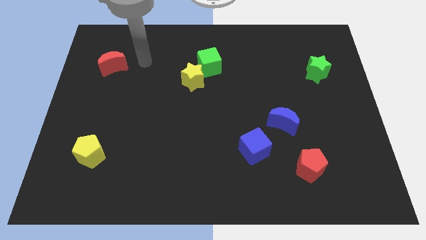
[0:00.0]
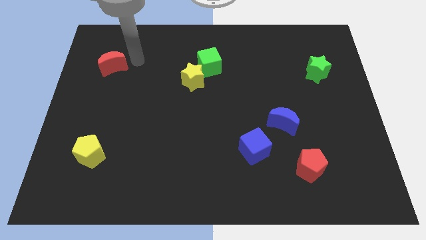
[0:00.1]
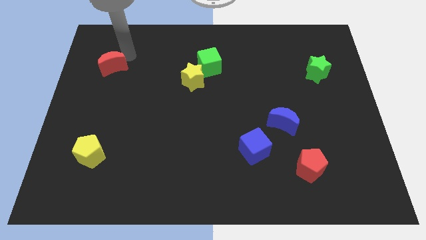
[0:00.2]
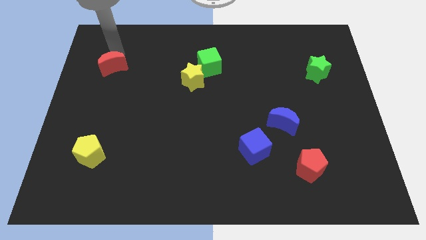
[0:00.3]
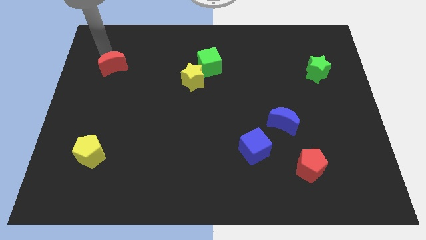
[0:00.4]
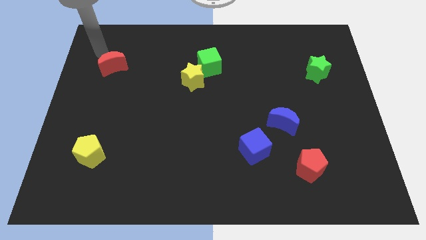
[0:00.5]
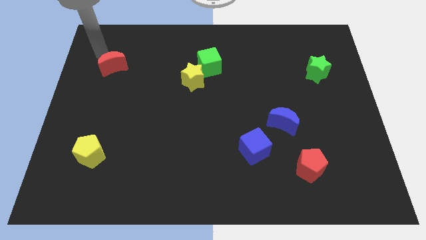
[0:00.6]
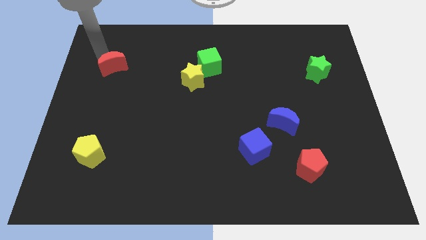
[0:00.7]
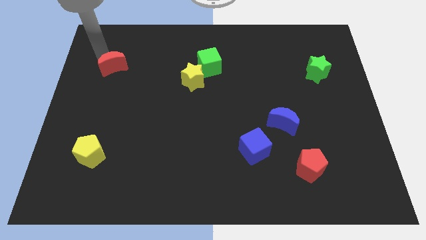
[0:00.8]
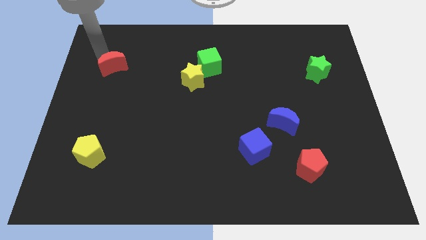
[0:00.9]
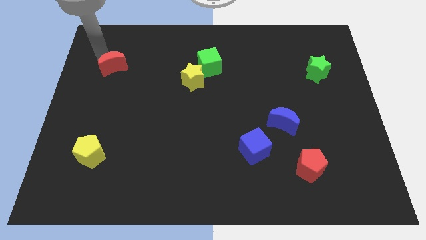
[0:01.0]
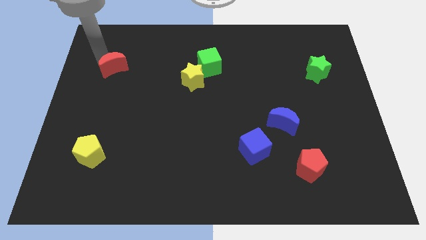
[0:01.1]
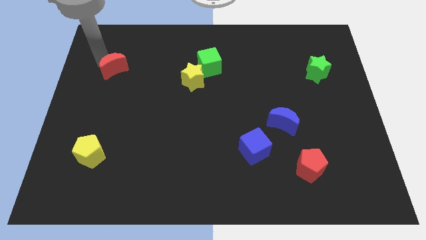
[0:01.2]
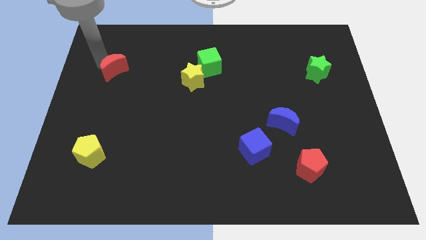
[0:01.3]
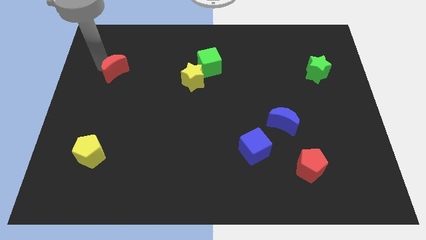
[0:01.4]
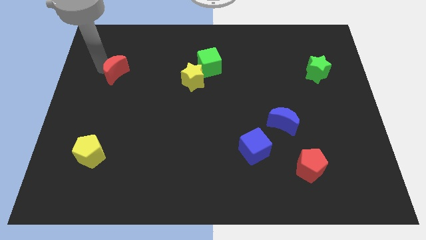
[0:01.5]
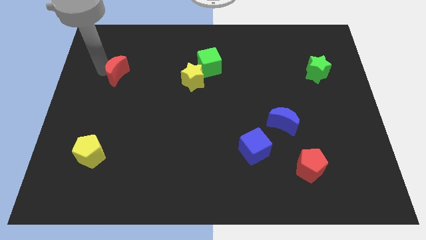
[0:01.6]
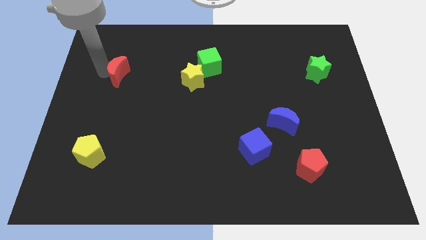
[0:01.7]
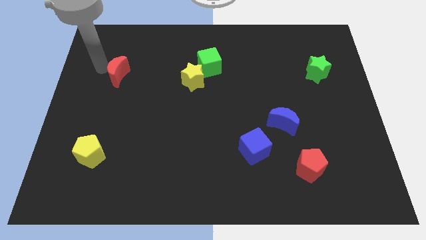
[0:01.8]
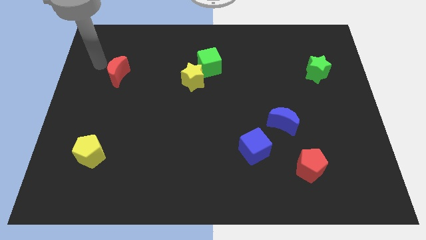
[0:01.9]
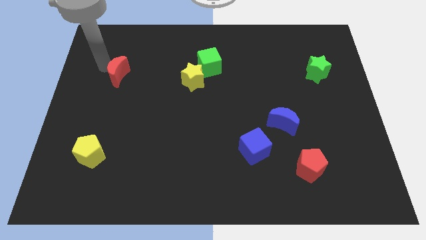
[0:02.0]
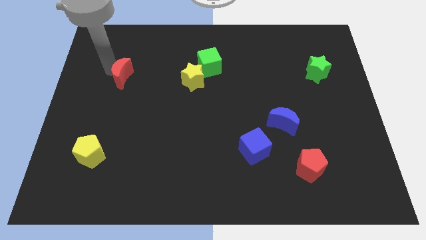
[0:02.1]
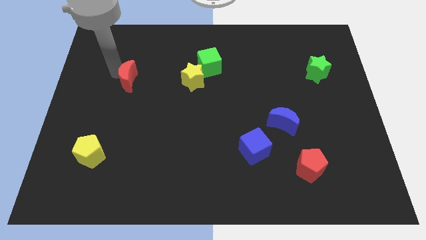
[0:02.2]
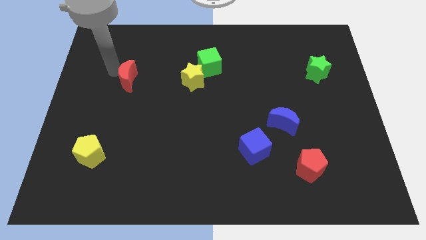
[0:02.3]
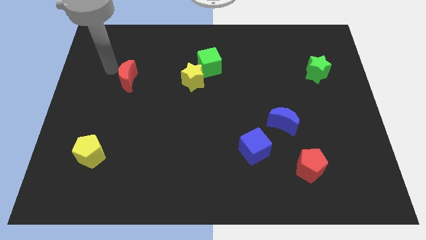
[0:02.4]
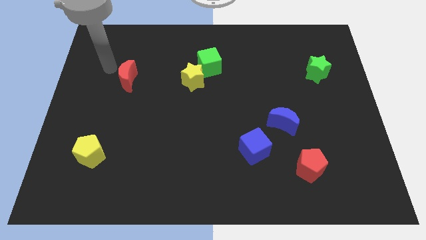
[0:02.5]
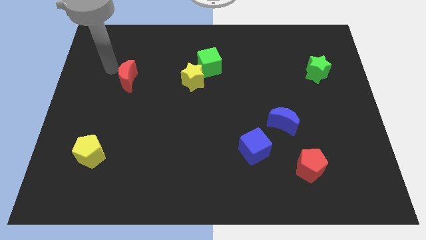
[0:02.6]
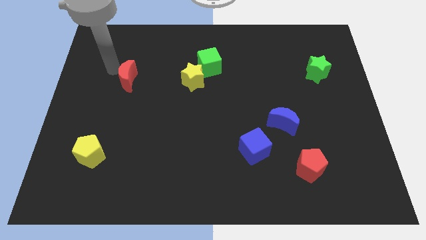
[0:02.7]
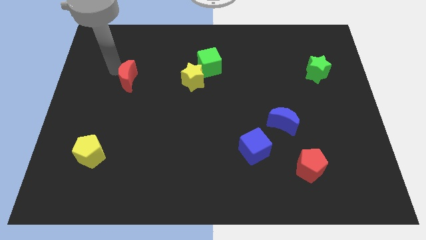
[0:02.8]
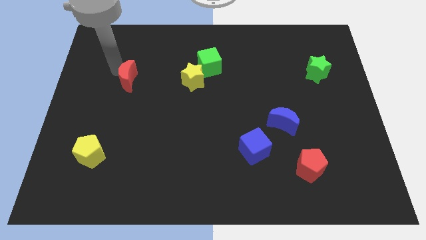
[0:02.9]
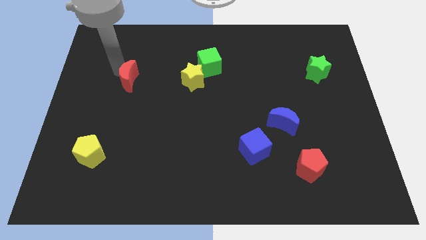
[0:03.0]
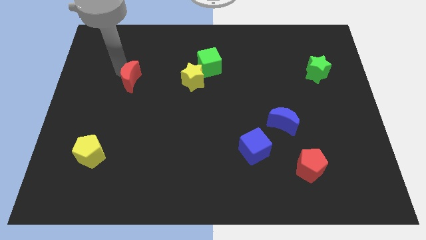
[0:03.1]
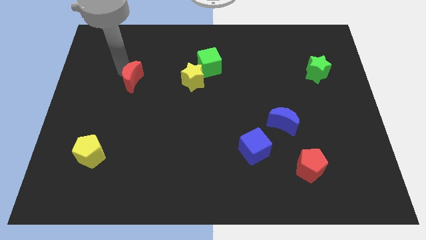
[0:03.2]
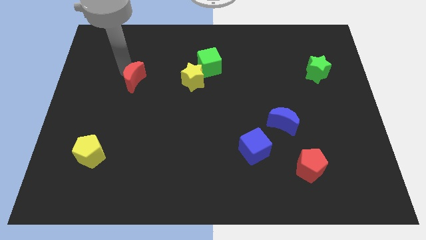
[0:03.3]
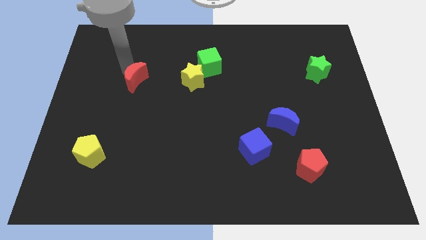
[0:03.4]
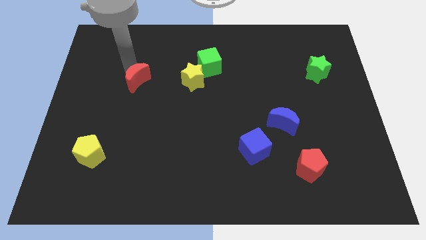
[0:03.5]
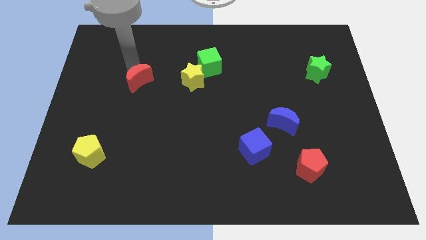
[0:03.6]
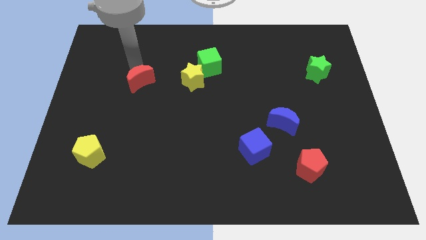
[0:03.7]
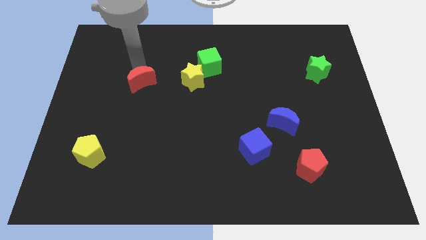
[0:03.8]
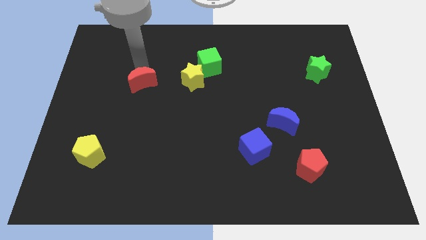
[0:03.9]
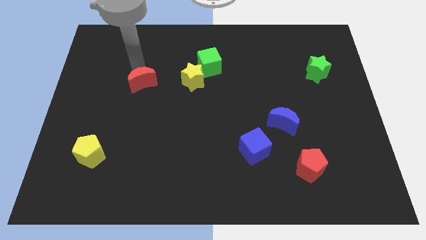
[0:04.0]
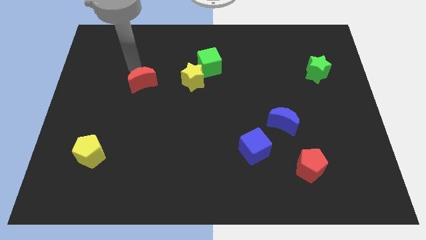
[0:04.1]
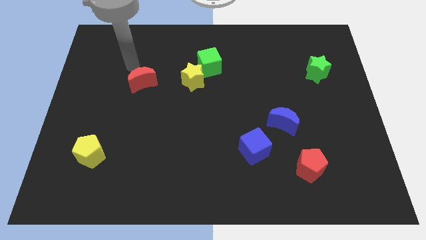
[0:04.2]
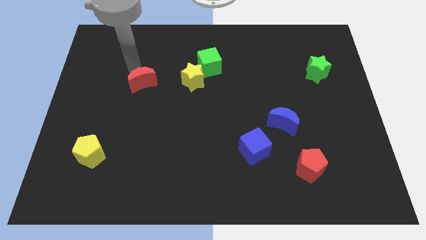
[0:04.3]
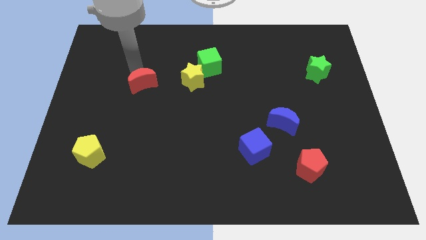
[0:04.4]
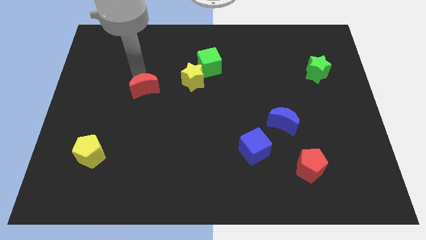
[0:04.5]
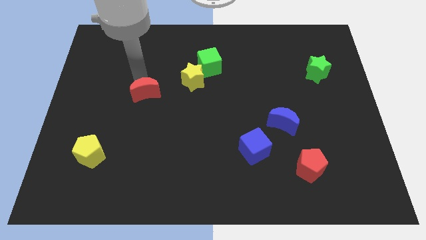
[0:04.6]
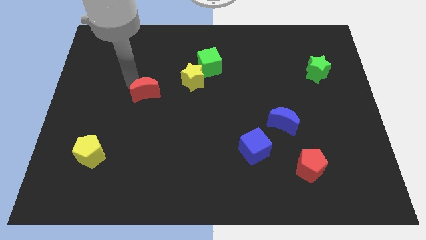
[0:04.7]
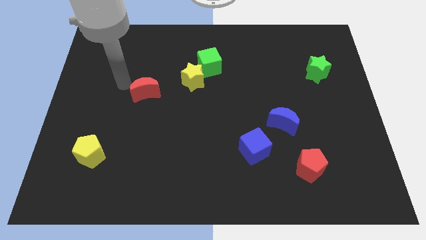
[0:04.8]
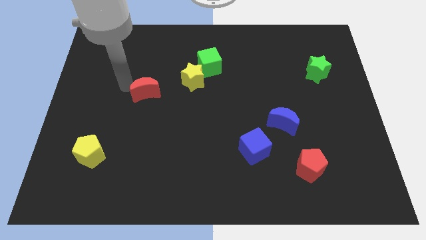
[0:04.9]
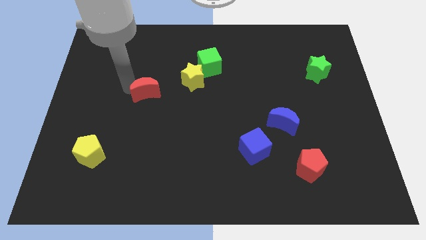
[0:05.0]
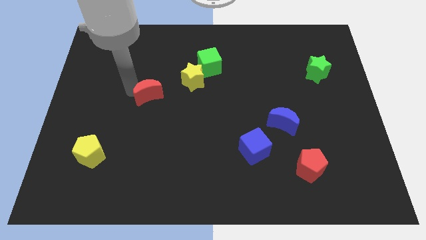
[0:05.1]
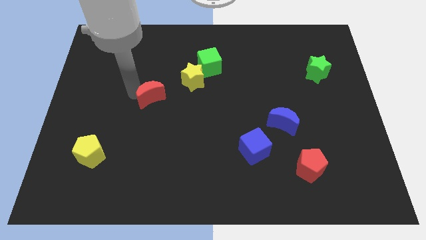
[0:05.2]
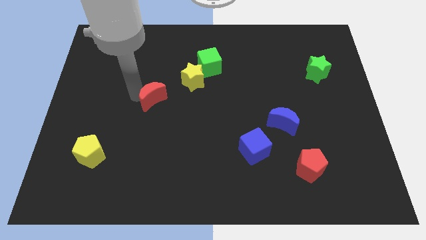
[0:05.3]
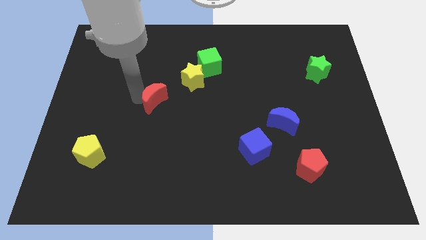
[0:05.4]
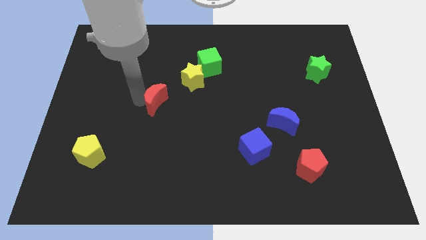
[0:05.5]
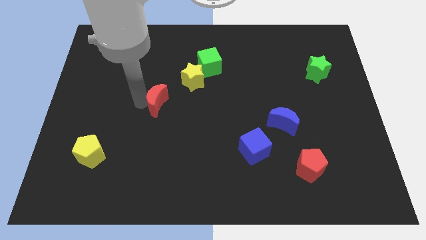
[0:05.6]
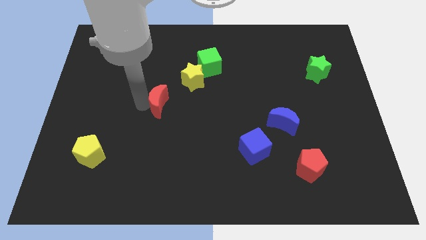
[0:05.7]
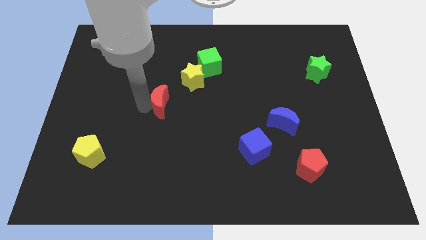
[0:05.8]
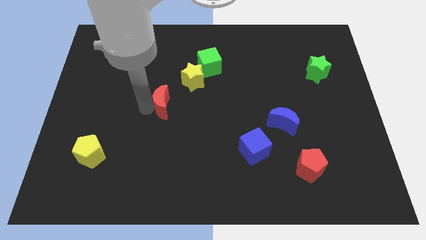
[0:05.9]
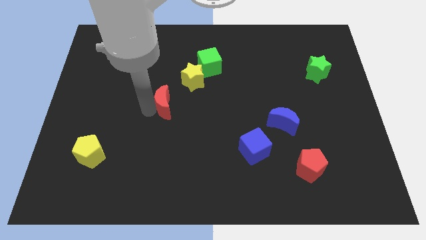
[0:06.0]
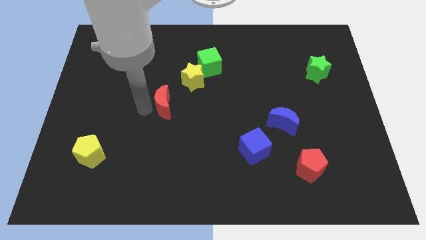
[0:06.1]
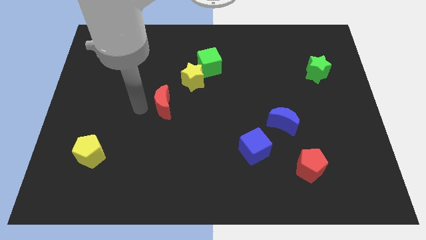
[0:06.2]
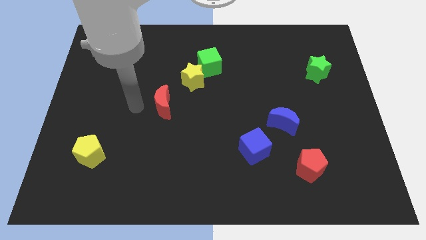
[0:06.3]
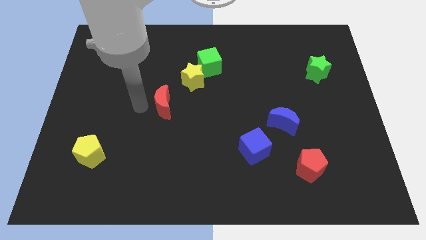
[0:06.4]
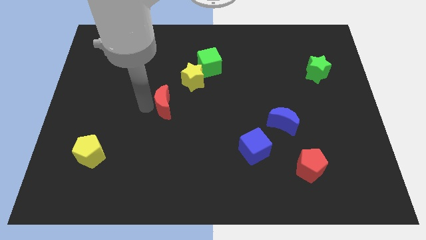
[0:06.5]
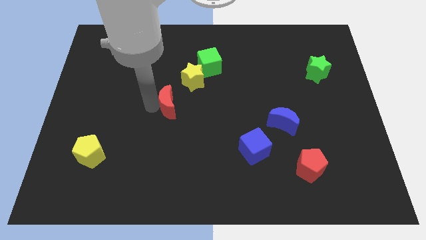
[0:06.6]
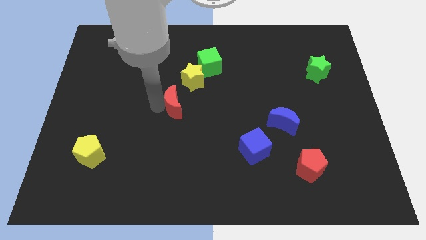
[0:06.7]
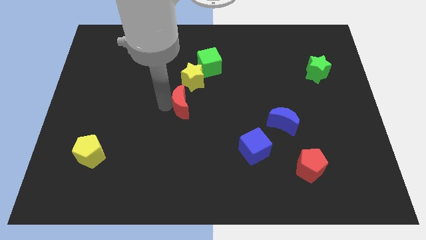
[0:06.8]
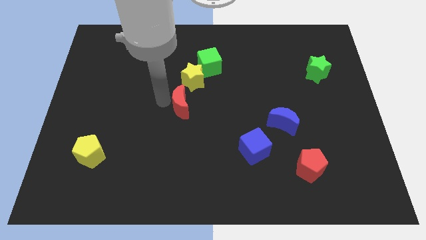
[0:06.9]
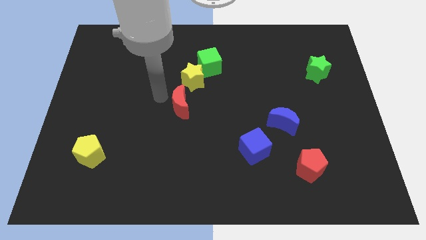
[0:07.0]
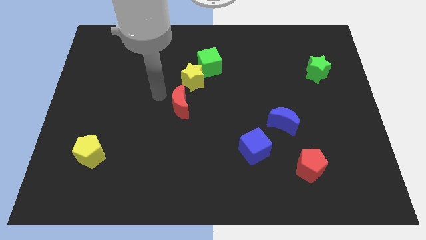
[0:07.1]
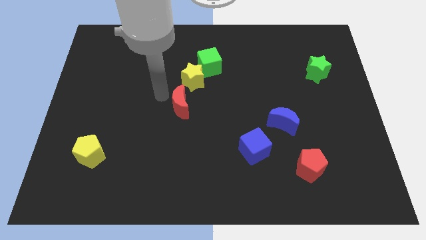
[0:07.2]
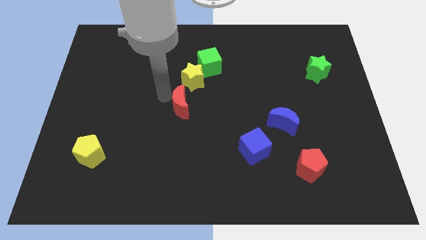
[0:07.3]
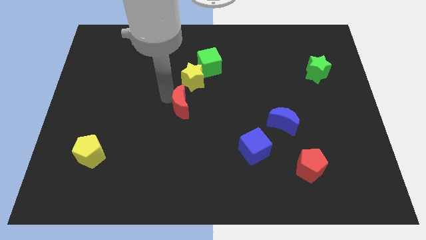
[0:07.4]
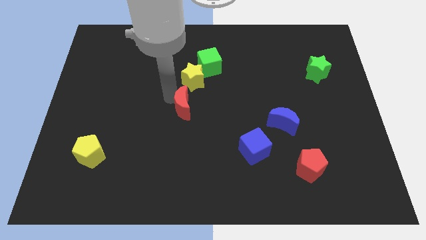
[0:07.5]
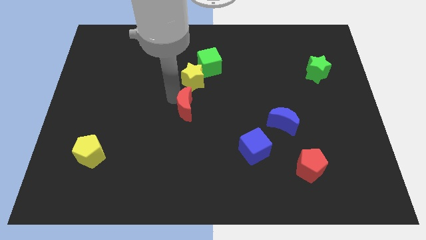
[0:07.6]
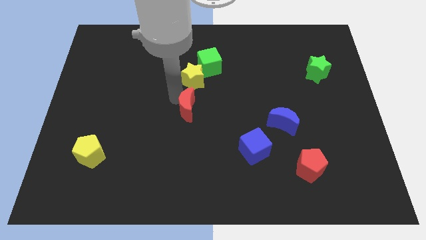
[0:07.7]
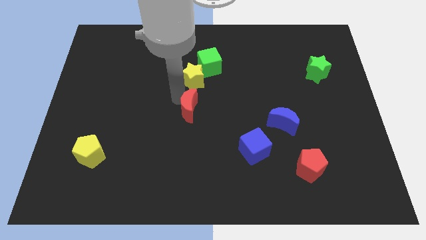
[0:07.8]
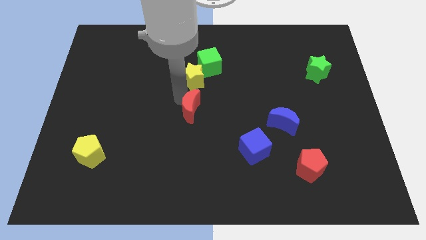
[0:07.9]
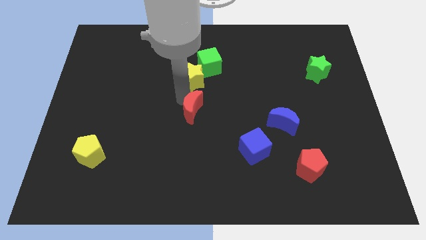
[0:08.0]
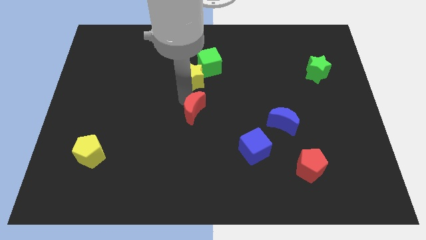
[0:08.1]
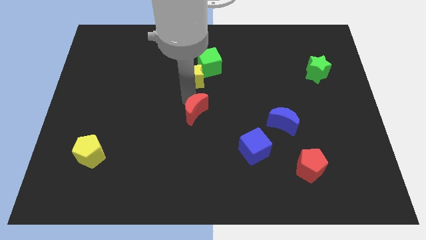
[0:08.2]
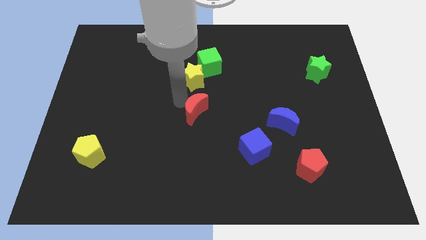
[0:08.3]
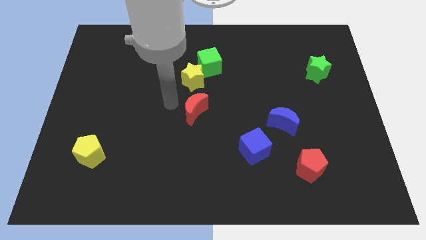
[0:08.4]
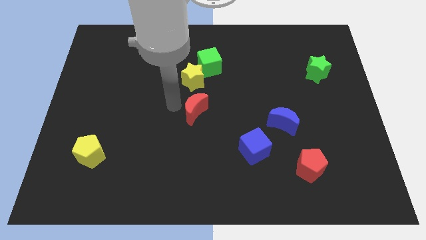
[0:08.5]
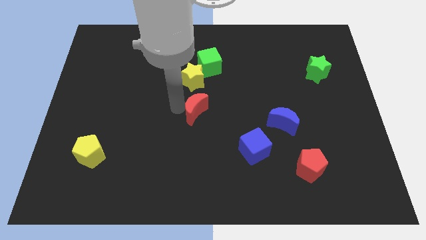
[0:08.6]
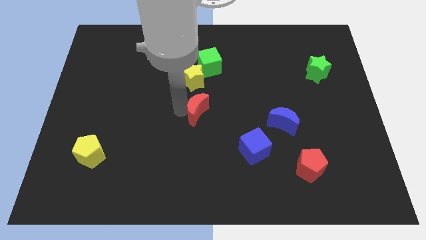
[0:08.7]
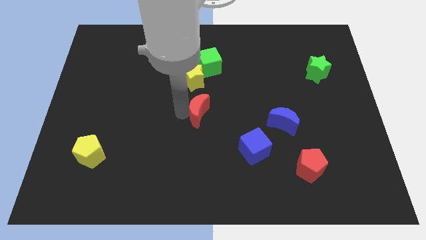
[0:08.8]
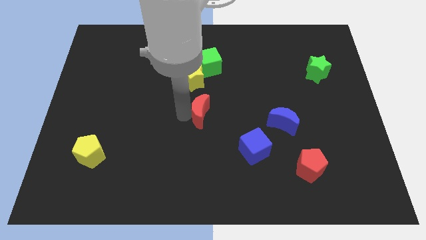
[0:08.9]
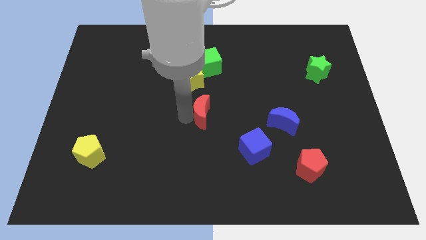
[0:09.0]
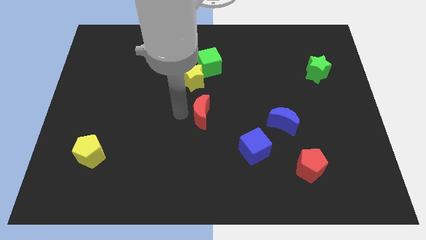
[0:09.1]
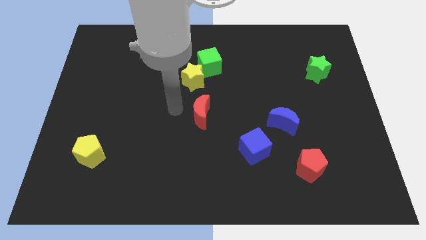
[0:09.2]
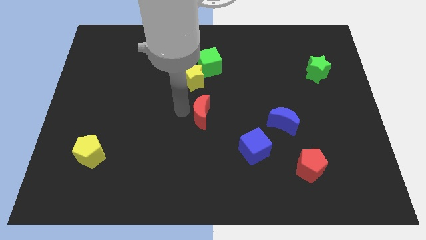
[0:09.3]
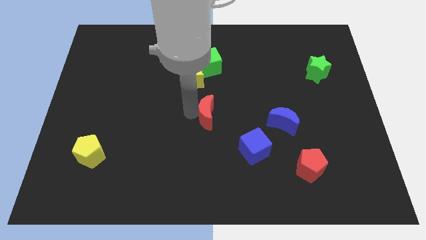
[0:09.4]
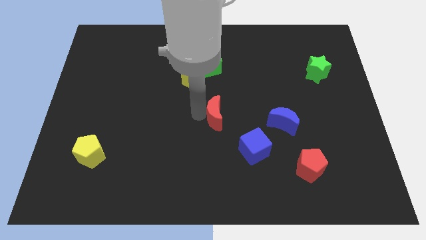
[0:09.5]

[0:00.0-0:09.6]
slide the red moon to the left side of the blue moon
